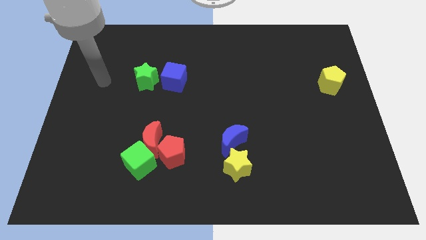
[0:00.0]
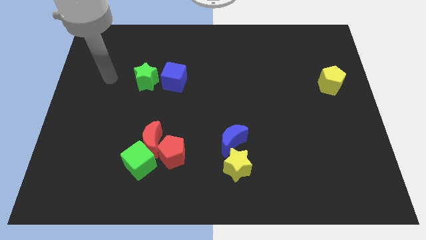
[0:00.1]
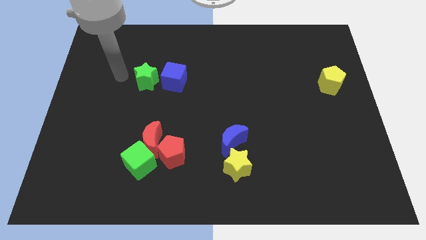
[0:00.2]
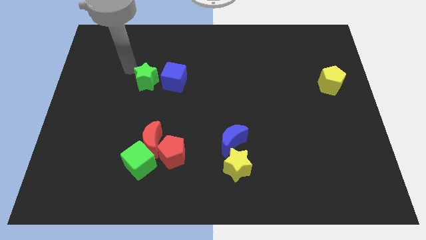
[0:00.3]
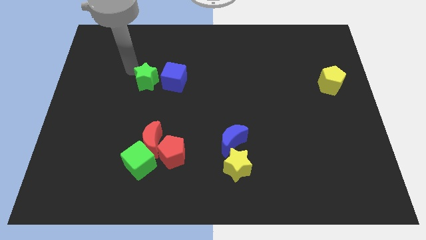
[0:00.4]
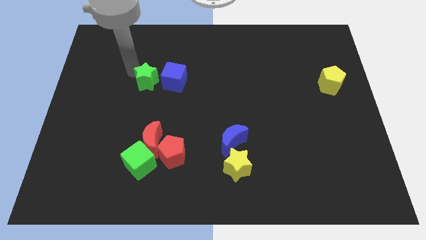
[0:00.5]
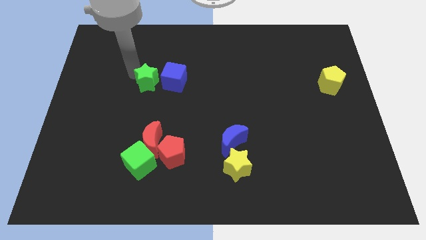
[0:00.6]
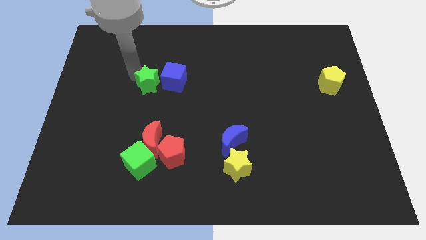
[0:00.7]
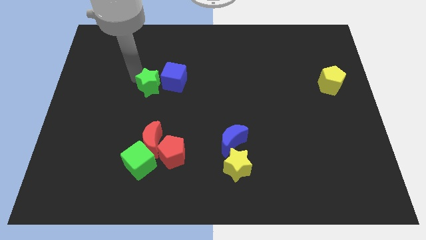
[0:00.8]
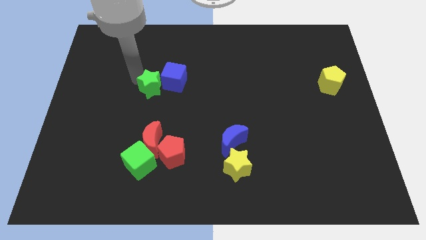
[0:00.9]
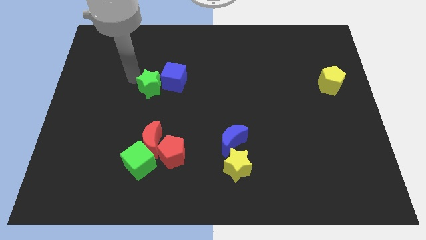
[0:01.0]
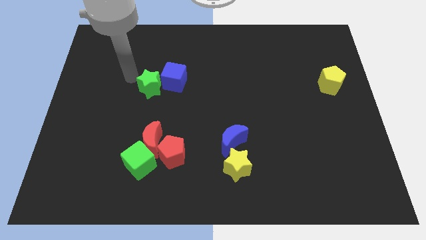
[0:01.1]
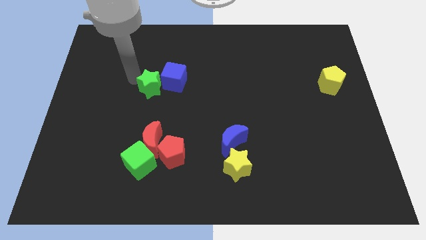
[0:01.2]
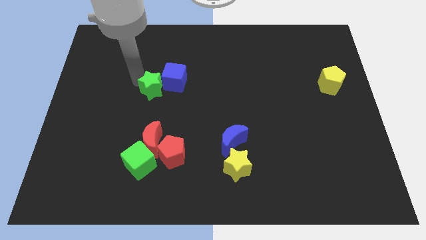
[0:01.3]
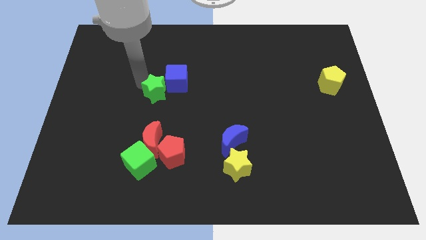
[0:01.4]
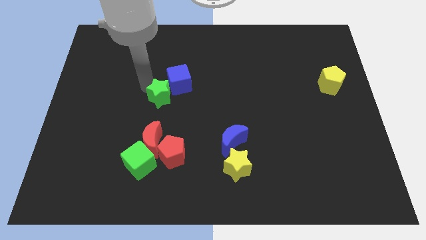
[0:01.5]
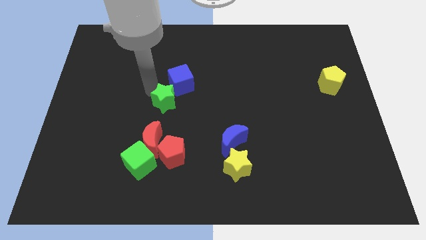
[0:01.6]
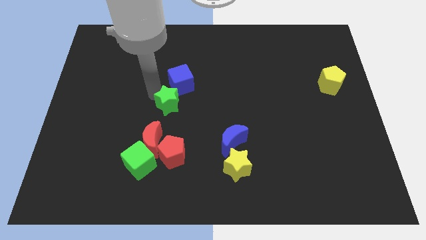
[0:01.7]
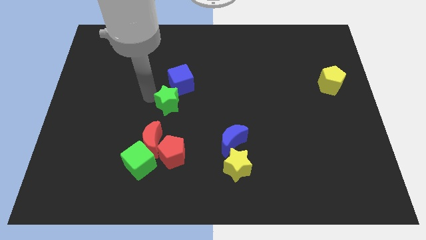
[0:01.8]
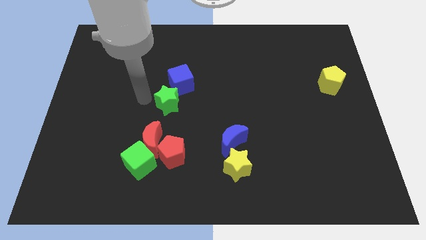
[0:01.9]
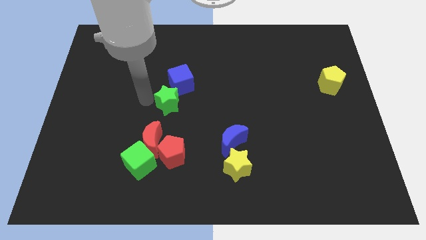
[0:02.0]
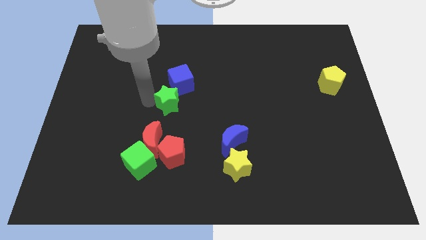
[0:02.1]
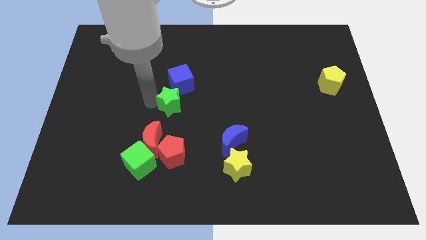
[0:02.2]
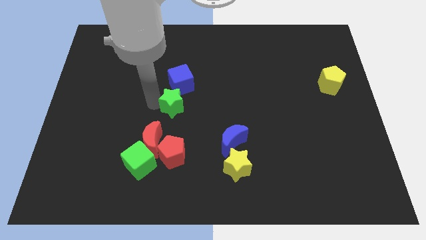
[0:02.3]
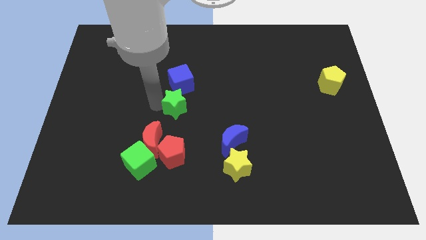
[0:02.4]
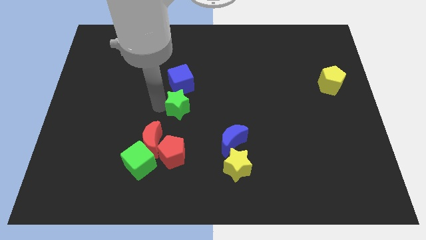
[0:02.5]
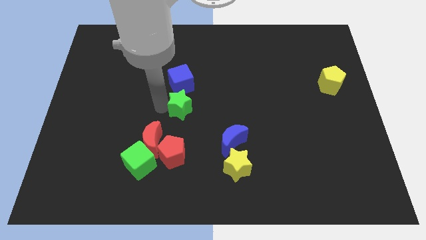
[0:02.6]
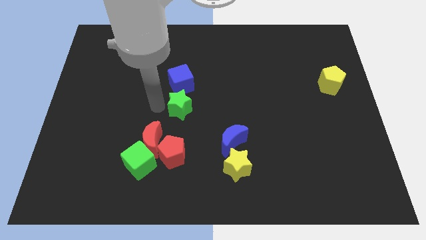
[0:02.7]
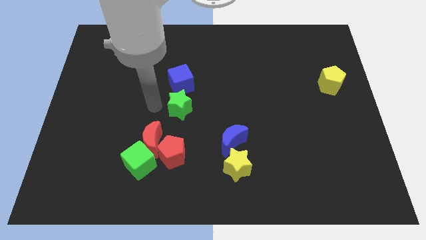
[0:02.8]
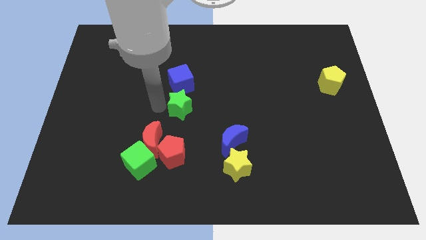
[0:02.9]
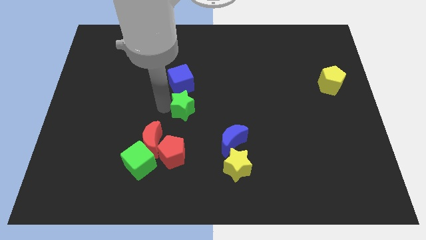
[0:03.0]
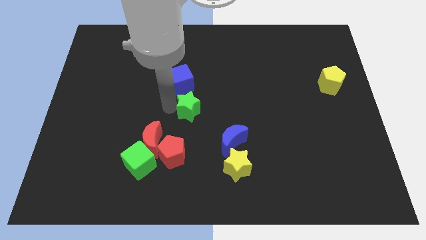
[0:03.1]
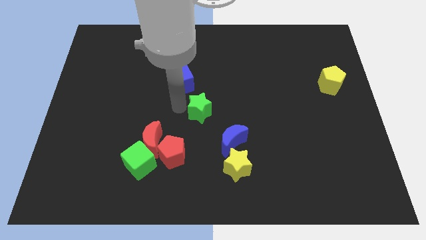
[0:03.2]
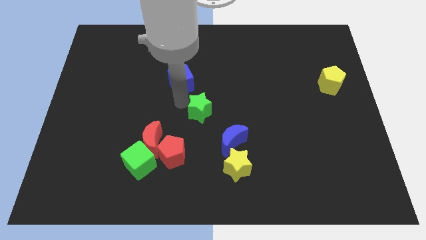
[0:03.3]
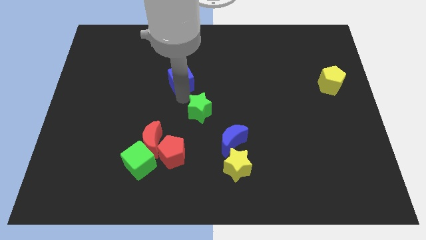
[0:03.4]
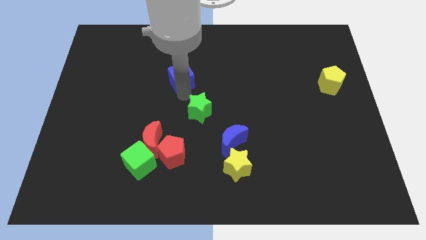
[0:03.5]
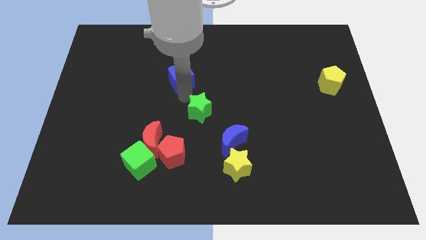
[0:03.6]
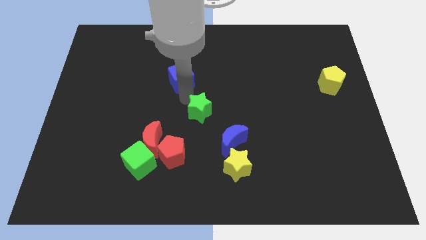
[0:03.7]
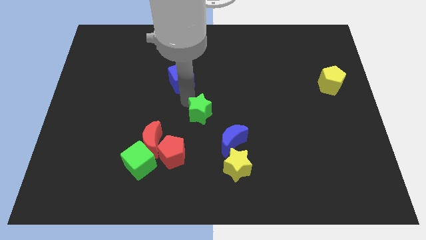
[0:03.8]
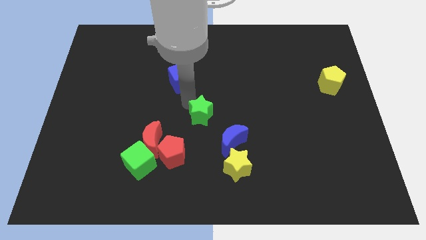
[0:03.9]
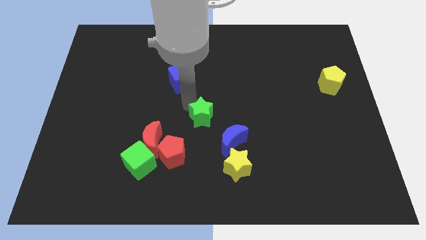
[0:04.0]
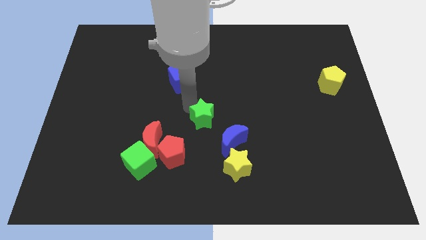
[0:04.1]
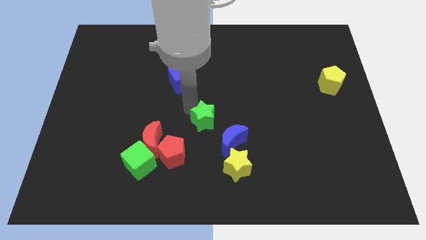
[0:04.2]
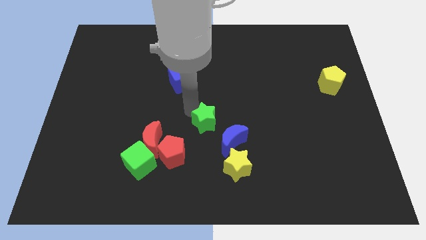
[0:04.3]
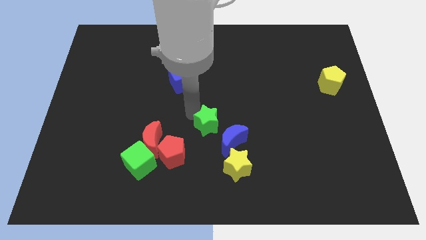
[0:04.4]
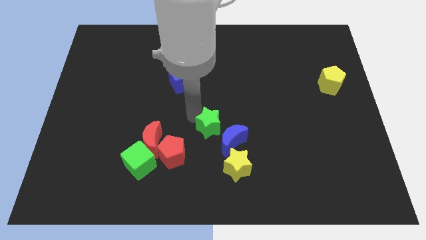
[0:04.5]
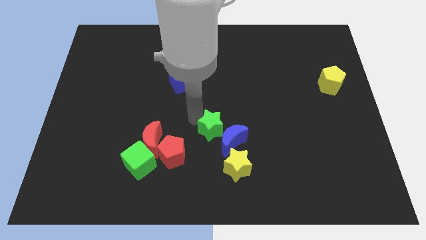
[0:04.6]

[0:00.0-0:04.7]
move the green star next to the blue moon

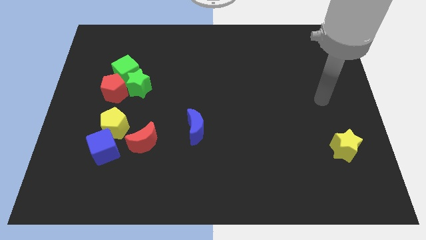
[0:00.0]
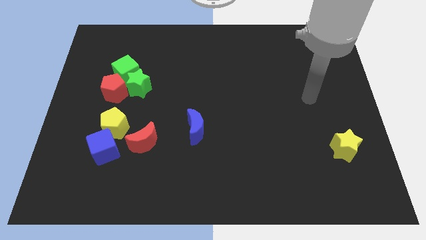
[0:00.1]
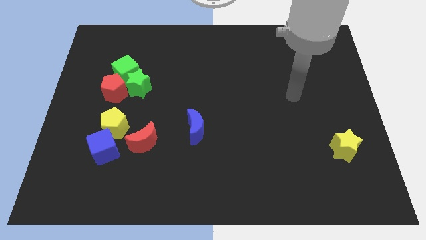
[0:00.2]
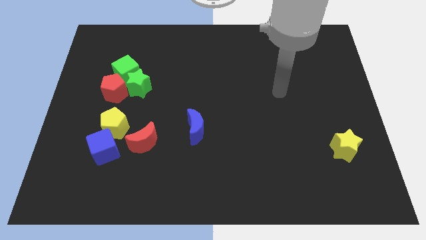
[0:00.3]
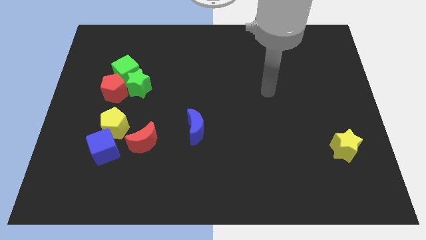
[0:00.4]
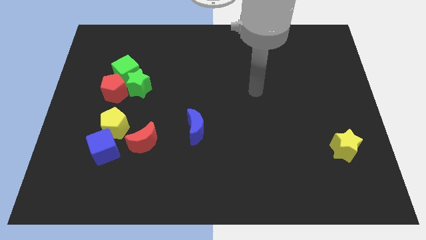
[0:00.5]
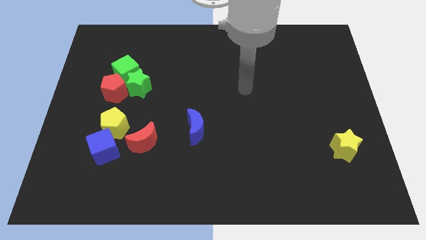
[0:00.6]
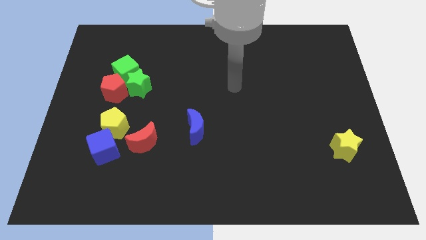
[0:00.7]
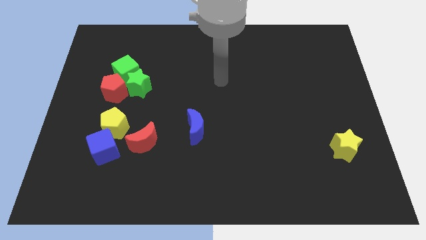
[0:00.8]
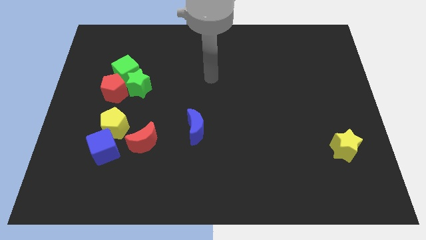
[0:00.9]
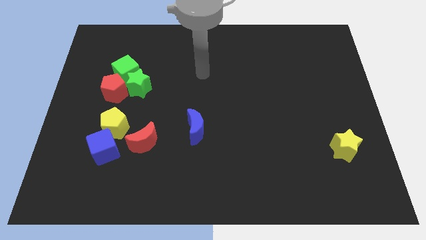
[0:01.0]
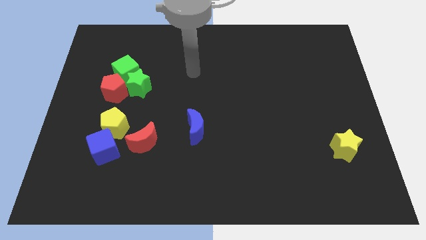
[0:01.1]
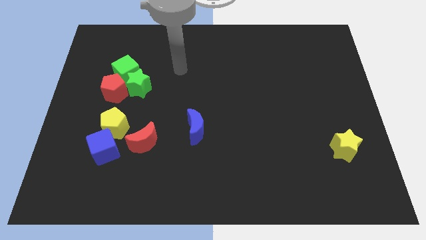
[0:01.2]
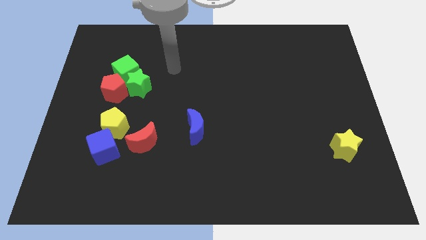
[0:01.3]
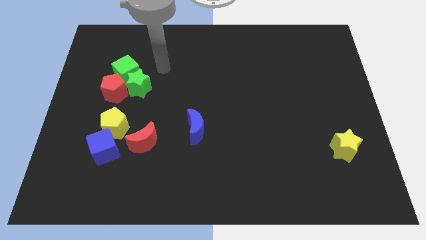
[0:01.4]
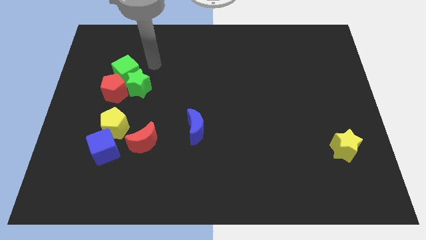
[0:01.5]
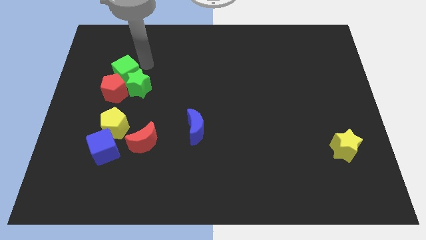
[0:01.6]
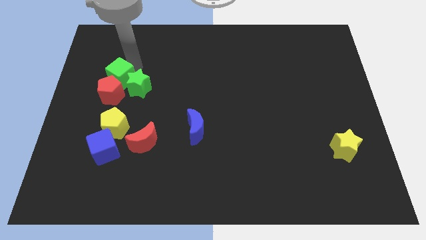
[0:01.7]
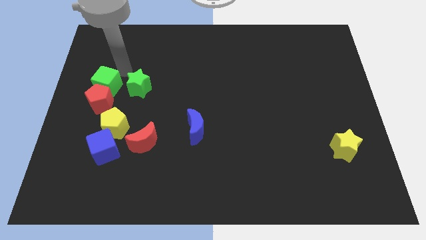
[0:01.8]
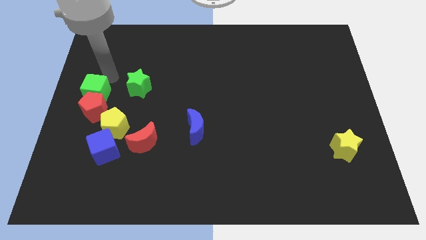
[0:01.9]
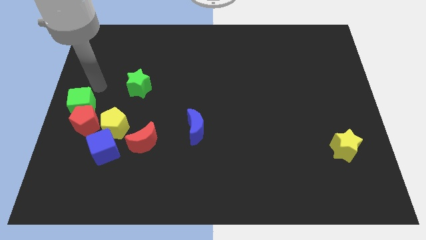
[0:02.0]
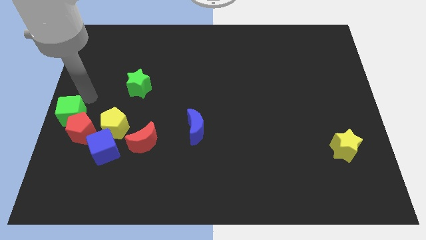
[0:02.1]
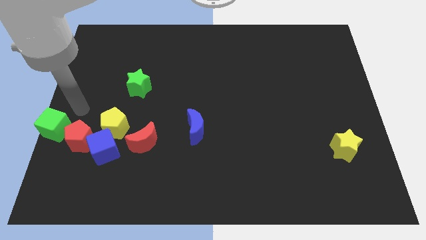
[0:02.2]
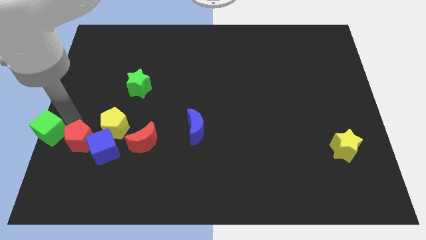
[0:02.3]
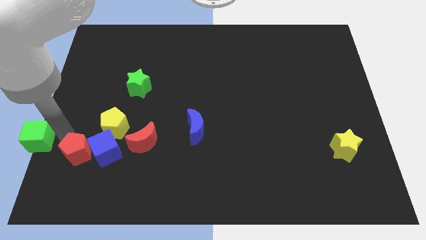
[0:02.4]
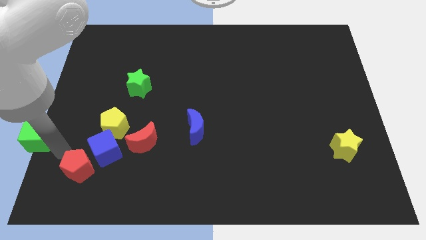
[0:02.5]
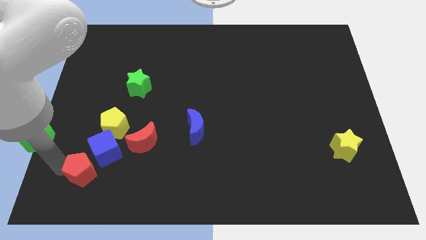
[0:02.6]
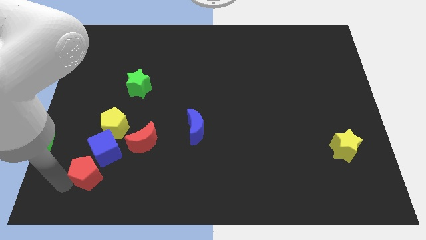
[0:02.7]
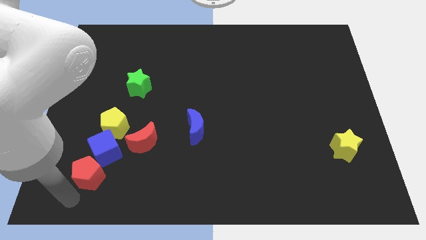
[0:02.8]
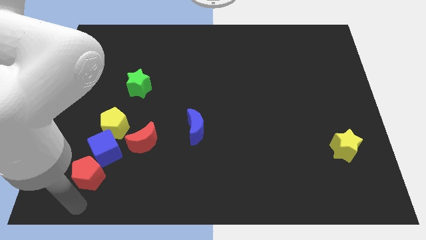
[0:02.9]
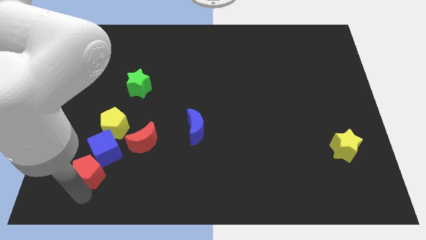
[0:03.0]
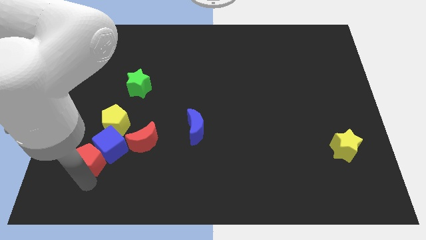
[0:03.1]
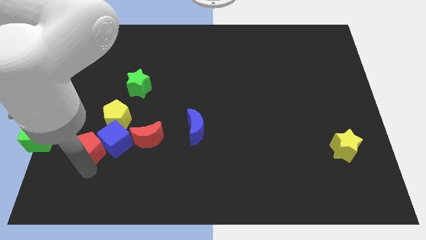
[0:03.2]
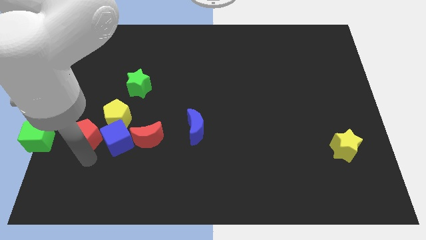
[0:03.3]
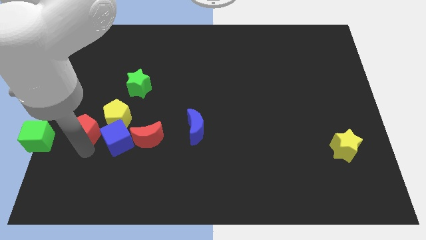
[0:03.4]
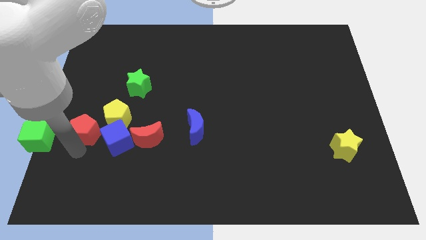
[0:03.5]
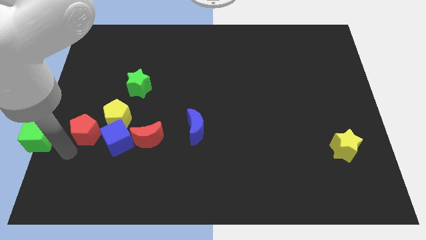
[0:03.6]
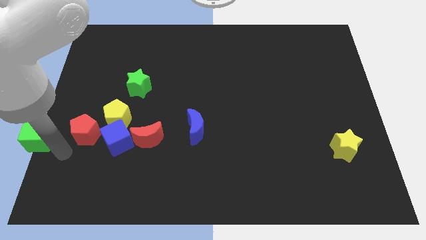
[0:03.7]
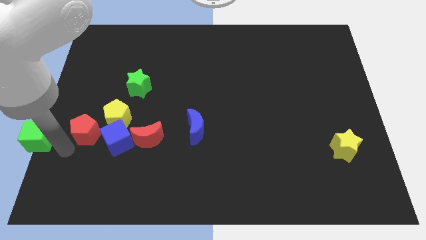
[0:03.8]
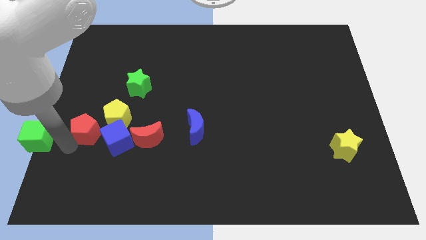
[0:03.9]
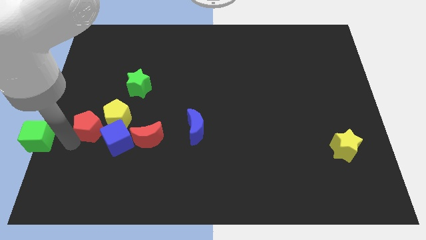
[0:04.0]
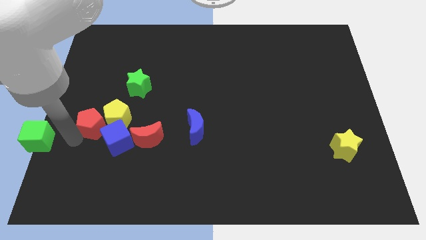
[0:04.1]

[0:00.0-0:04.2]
slide the red pentagon next to the yellow pentagon
